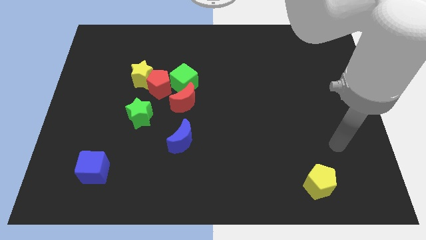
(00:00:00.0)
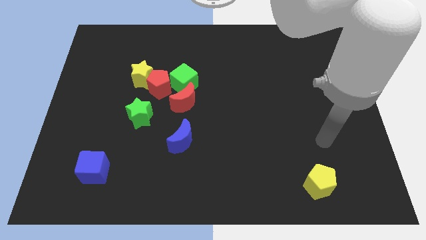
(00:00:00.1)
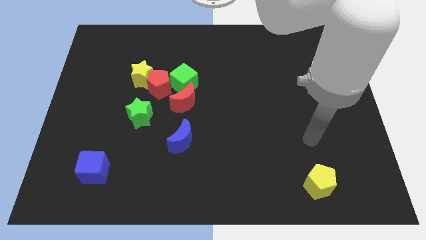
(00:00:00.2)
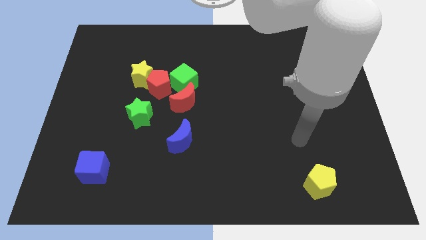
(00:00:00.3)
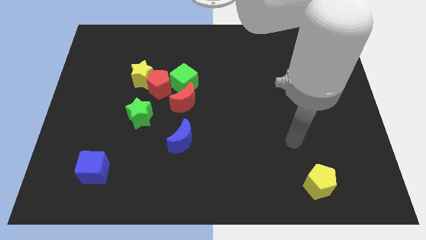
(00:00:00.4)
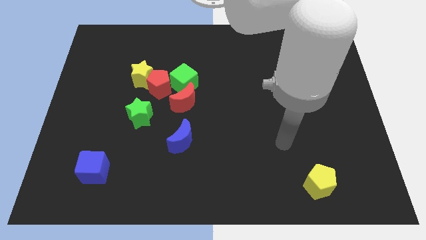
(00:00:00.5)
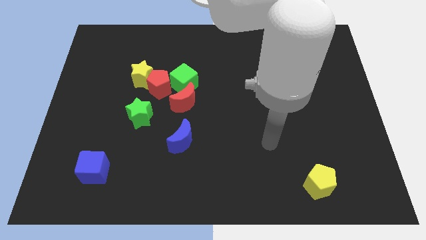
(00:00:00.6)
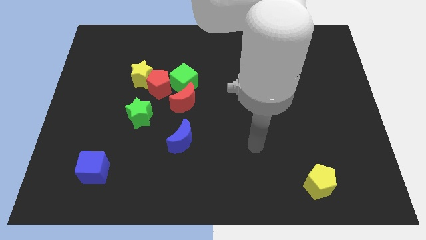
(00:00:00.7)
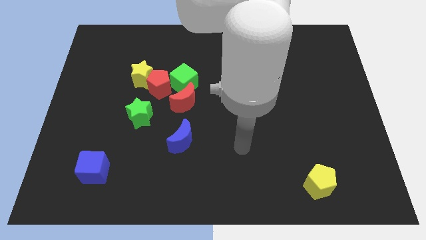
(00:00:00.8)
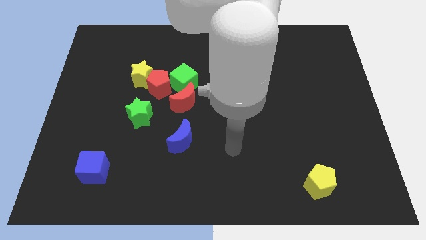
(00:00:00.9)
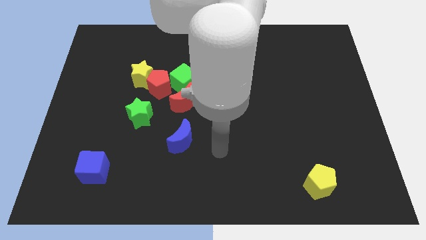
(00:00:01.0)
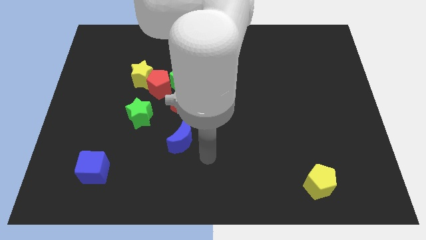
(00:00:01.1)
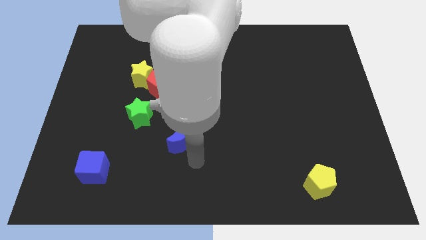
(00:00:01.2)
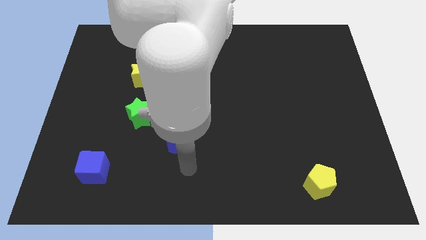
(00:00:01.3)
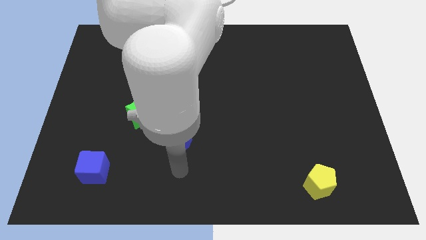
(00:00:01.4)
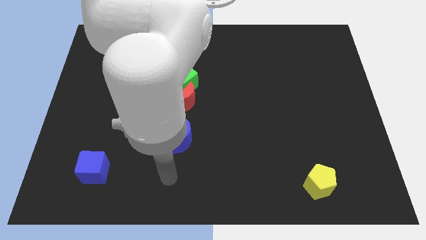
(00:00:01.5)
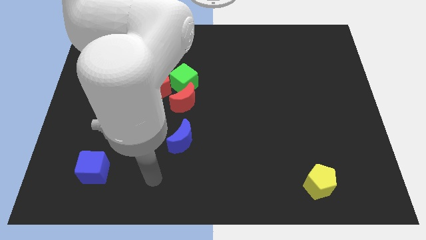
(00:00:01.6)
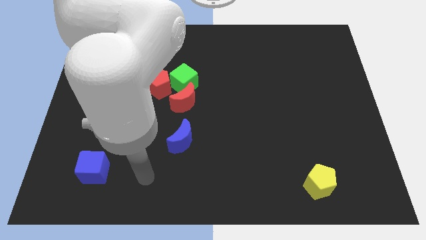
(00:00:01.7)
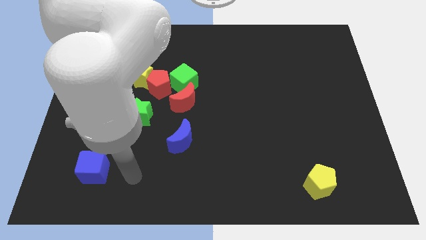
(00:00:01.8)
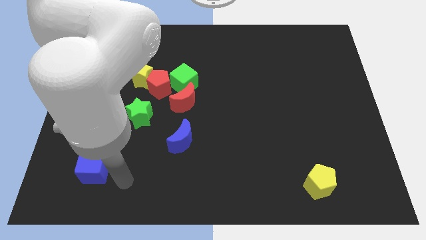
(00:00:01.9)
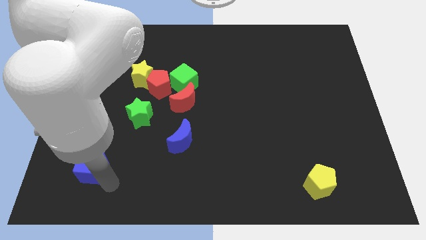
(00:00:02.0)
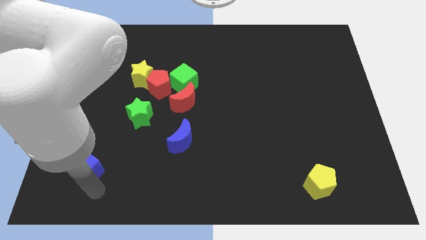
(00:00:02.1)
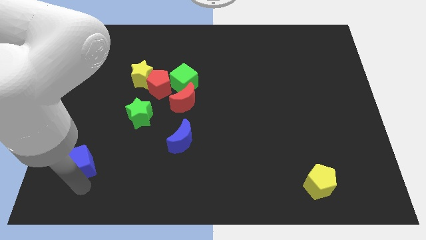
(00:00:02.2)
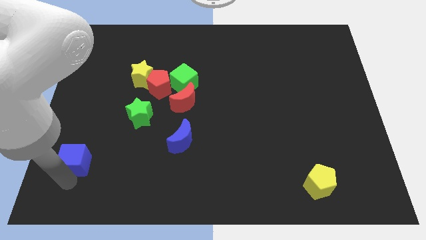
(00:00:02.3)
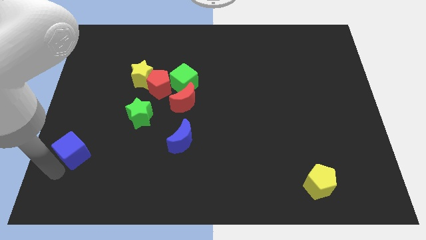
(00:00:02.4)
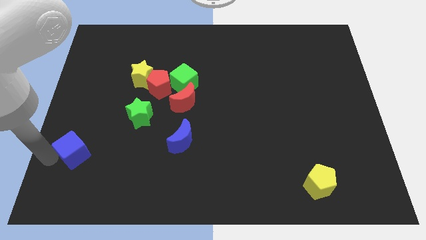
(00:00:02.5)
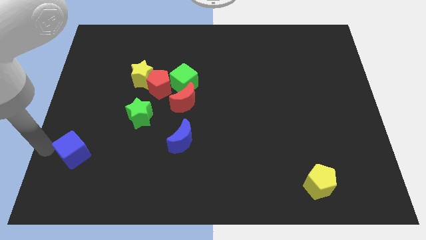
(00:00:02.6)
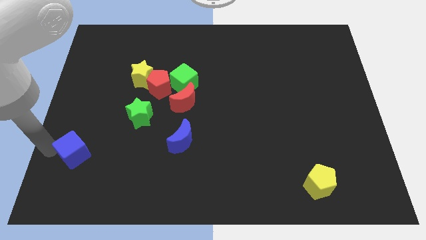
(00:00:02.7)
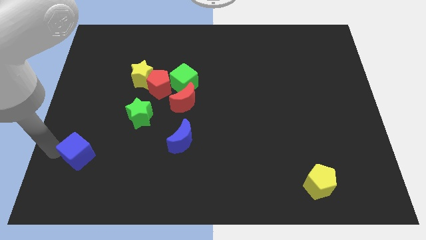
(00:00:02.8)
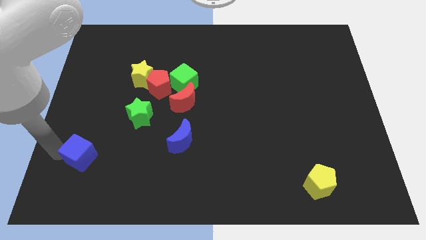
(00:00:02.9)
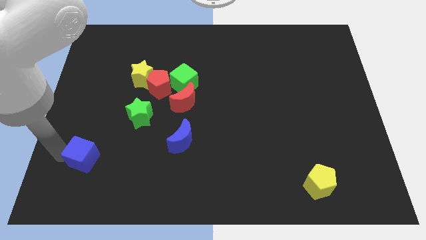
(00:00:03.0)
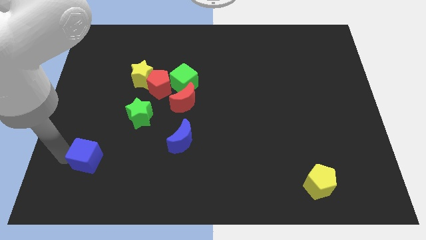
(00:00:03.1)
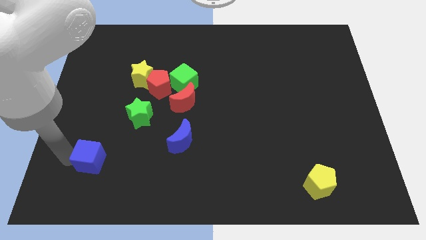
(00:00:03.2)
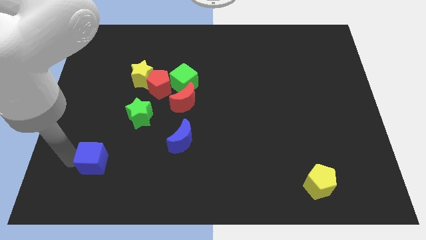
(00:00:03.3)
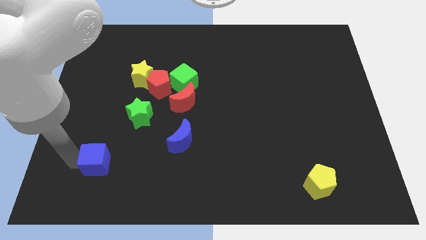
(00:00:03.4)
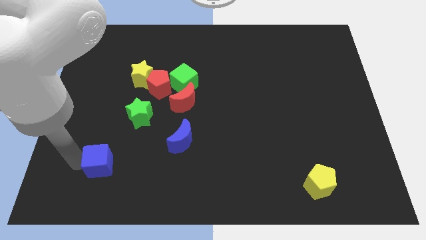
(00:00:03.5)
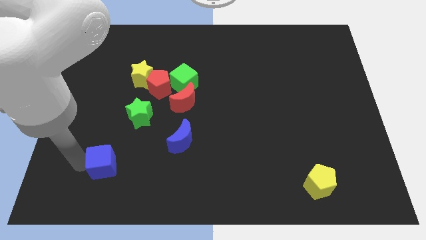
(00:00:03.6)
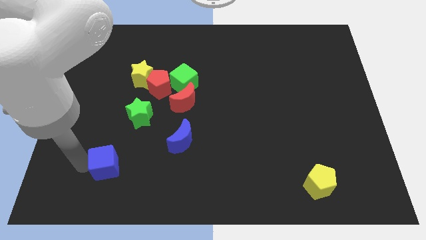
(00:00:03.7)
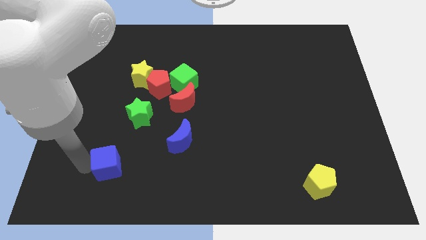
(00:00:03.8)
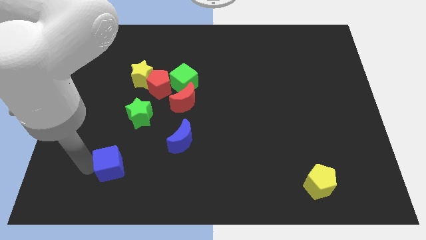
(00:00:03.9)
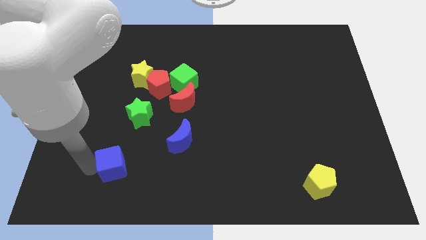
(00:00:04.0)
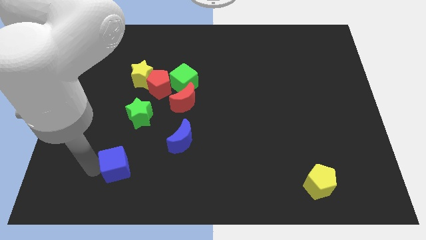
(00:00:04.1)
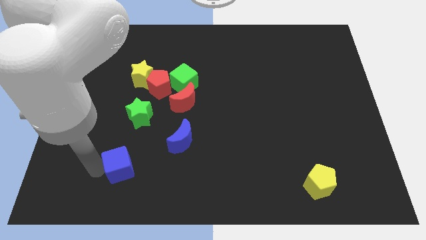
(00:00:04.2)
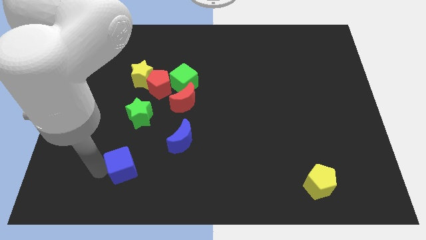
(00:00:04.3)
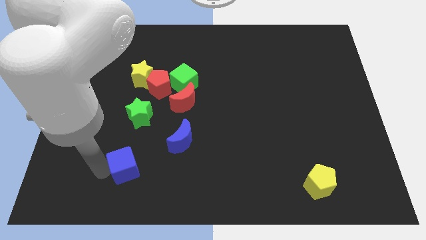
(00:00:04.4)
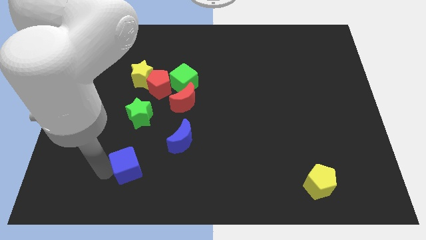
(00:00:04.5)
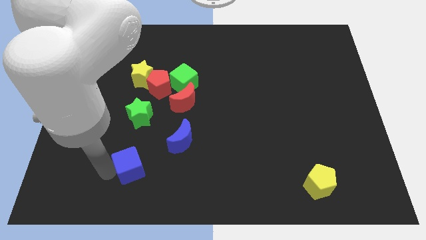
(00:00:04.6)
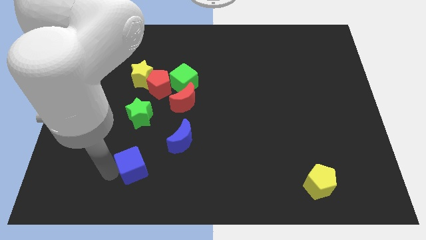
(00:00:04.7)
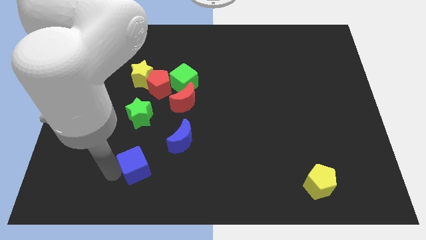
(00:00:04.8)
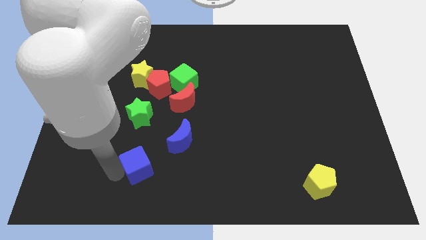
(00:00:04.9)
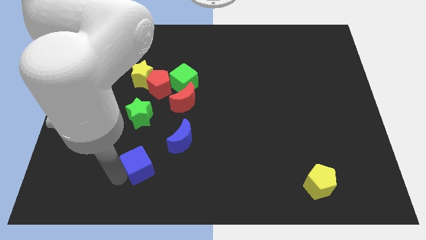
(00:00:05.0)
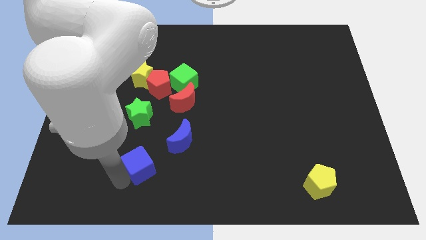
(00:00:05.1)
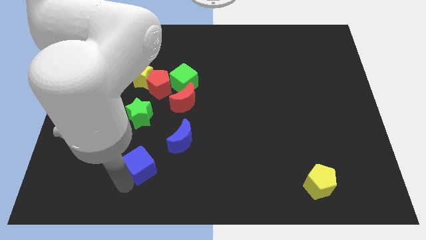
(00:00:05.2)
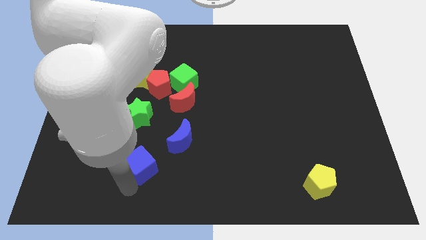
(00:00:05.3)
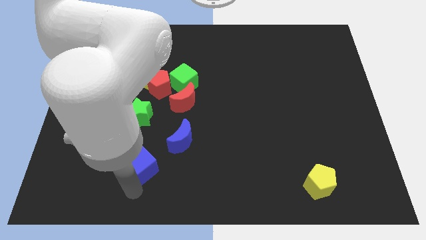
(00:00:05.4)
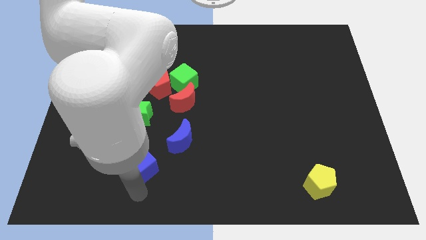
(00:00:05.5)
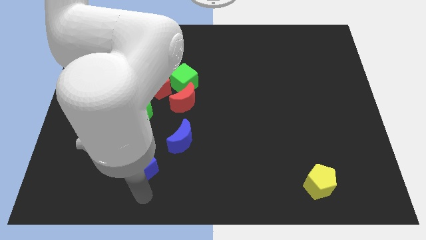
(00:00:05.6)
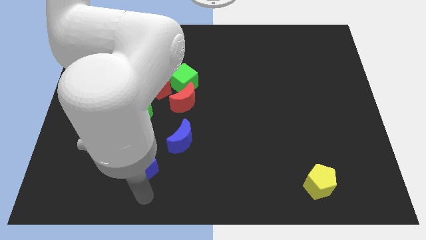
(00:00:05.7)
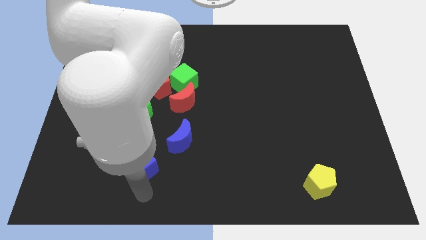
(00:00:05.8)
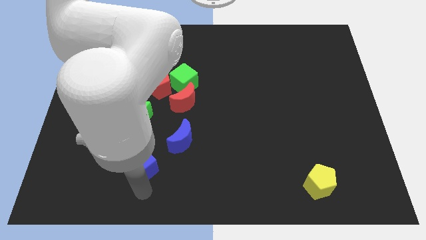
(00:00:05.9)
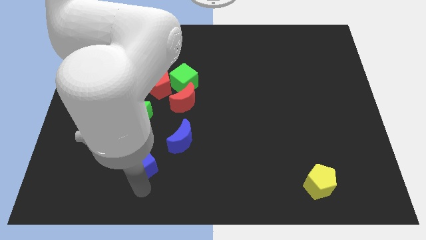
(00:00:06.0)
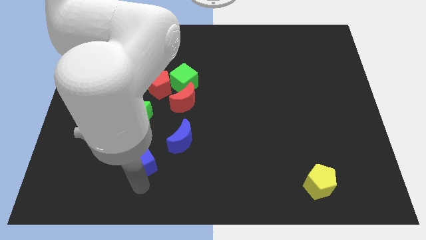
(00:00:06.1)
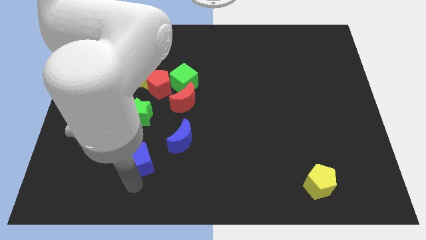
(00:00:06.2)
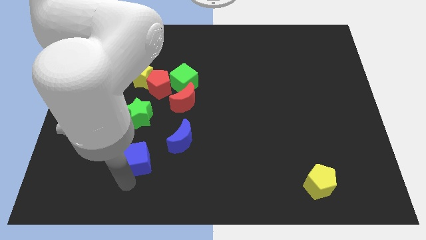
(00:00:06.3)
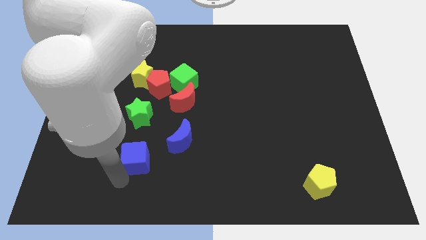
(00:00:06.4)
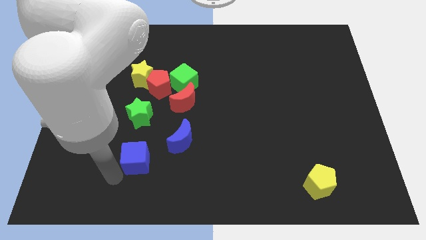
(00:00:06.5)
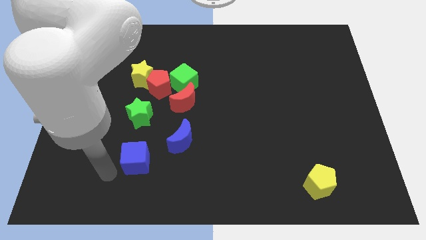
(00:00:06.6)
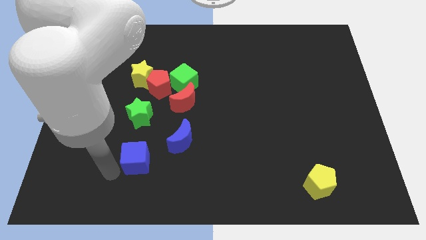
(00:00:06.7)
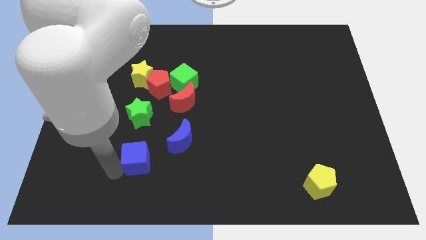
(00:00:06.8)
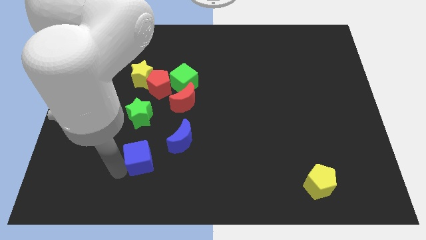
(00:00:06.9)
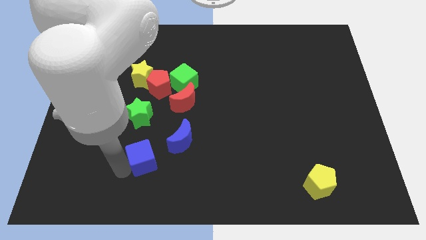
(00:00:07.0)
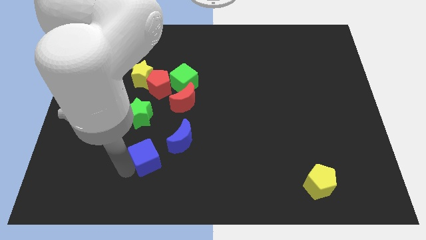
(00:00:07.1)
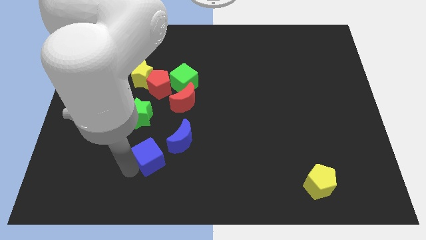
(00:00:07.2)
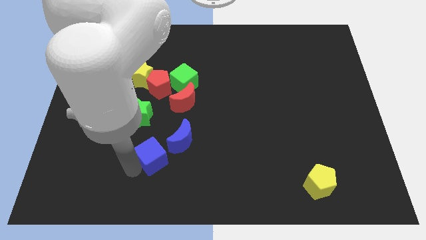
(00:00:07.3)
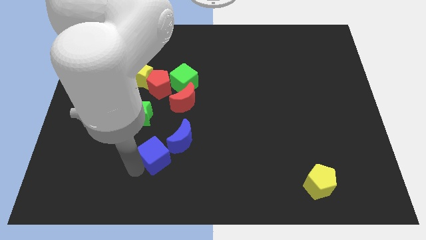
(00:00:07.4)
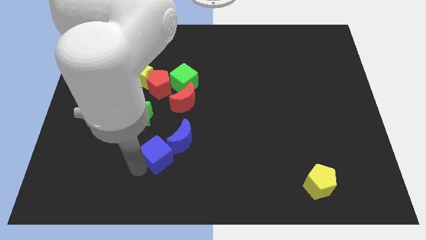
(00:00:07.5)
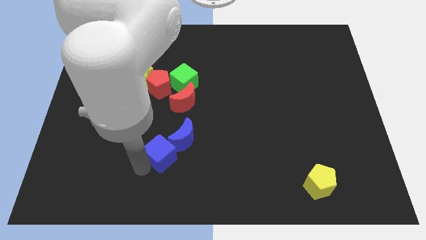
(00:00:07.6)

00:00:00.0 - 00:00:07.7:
push the blue cube towards the blue moon

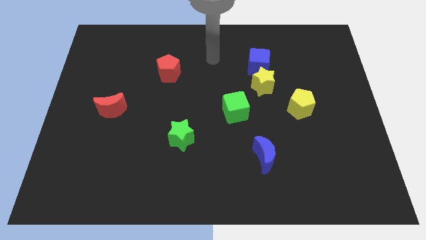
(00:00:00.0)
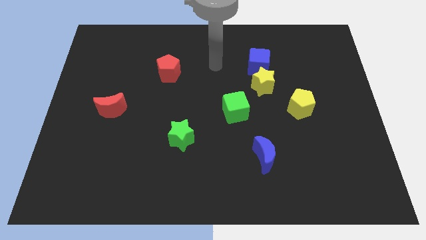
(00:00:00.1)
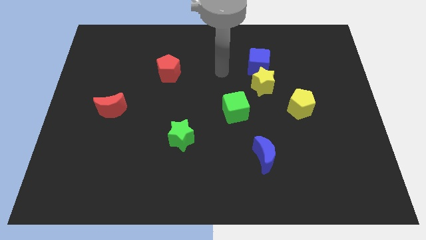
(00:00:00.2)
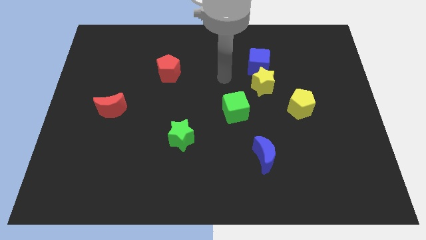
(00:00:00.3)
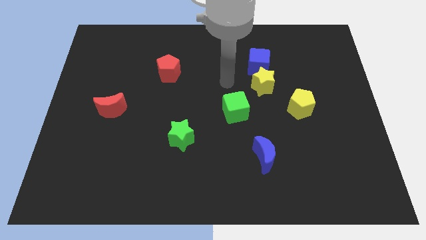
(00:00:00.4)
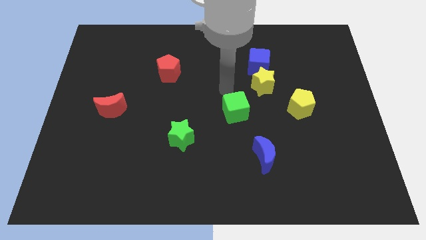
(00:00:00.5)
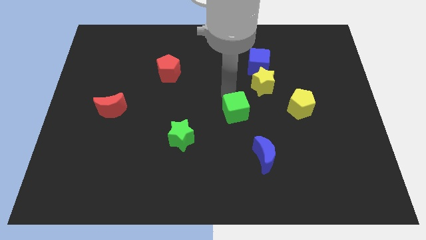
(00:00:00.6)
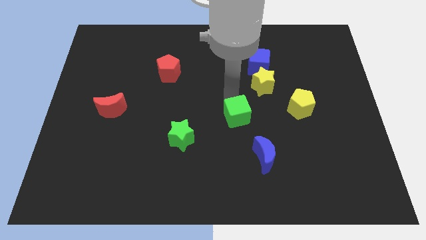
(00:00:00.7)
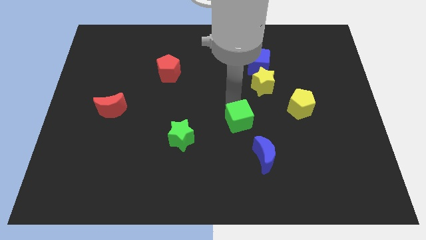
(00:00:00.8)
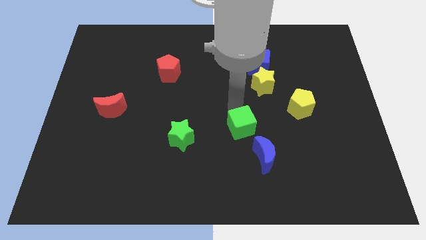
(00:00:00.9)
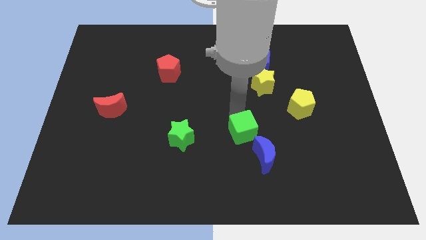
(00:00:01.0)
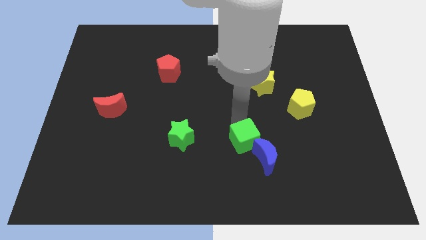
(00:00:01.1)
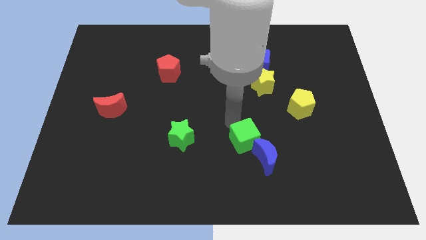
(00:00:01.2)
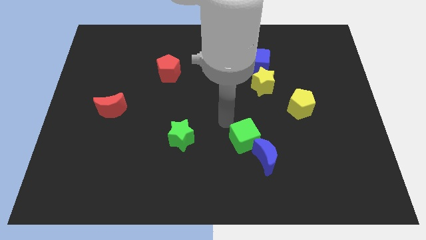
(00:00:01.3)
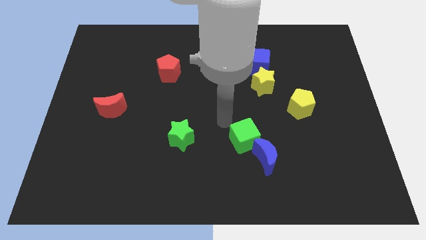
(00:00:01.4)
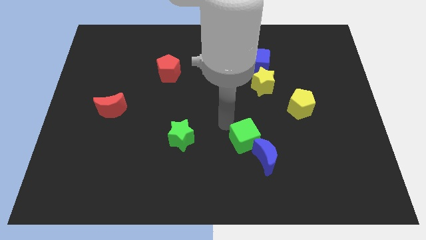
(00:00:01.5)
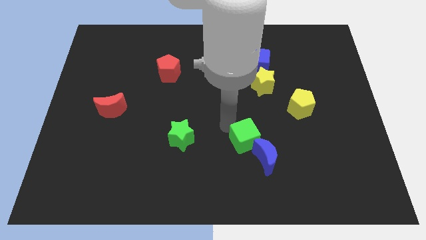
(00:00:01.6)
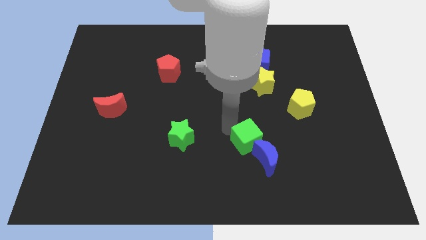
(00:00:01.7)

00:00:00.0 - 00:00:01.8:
put the green cube close to the blue moon
